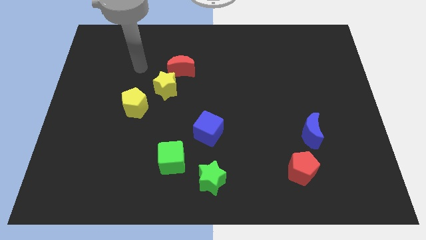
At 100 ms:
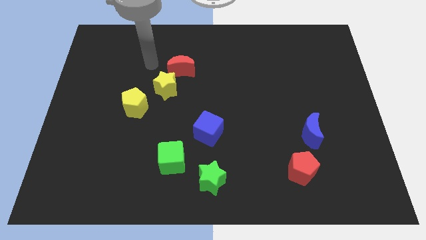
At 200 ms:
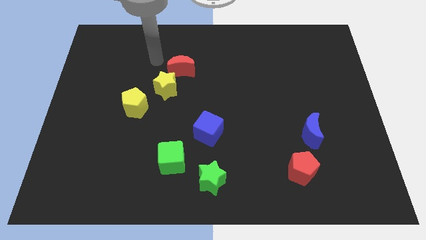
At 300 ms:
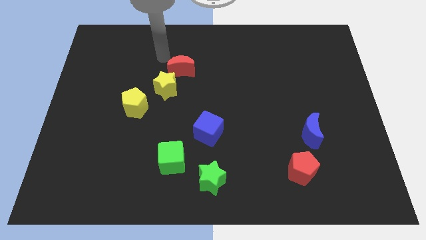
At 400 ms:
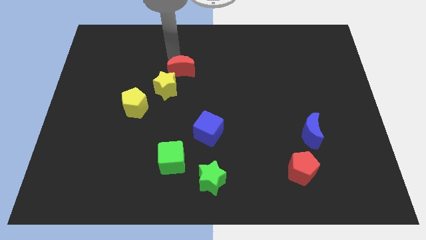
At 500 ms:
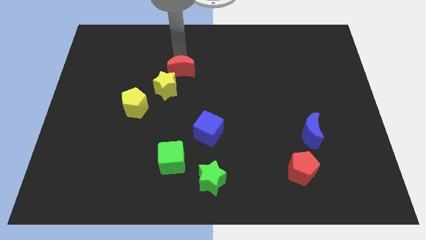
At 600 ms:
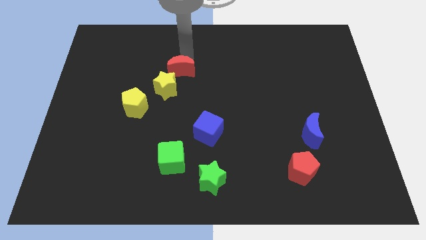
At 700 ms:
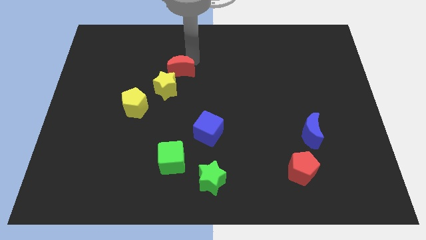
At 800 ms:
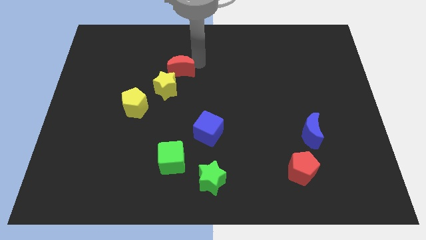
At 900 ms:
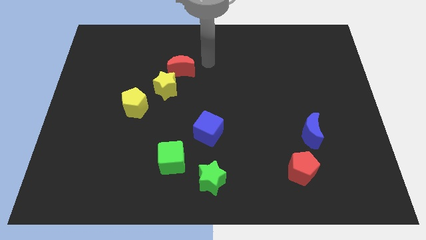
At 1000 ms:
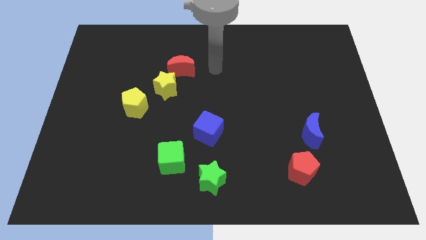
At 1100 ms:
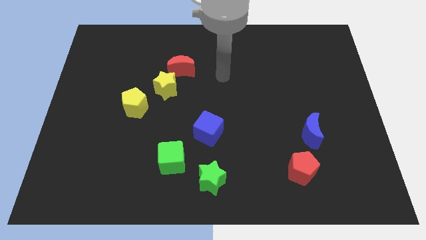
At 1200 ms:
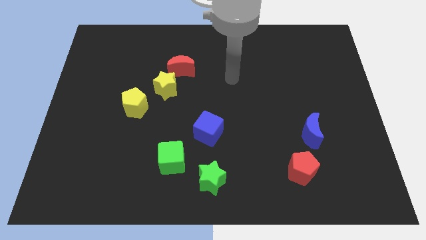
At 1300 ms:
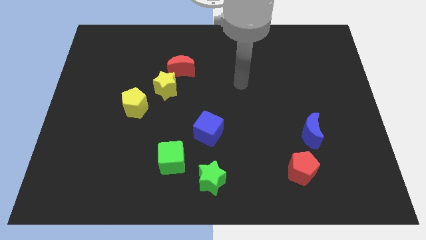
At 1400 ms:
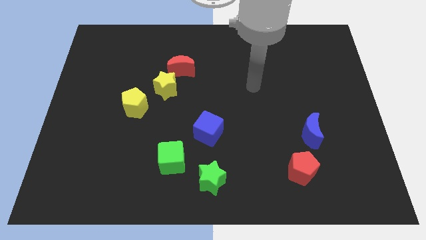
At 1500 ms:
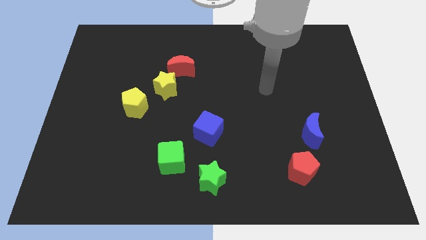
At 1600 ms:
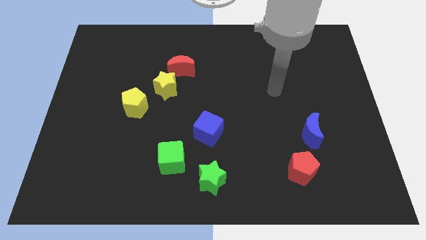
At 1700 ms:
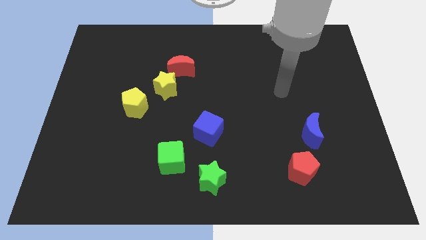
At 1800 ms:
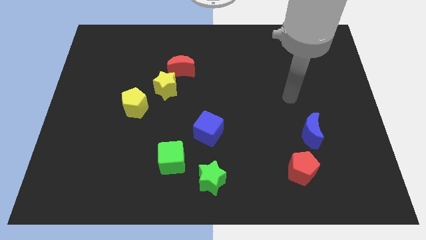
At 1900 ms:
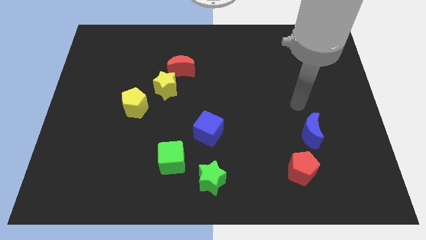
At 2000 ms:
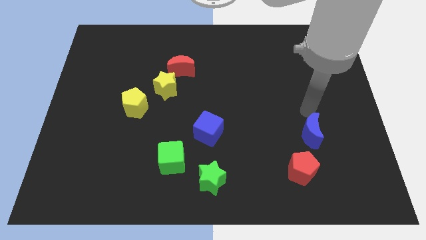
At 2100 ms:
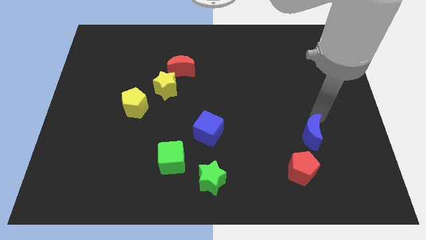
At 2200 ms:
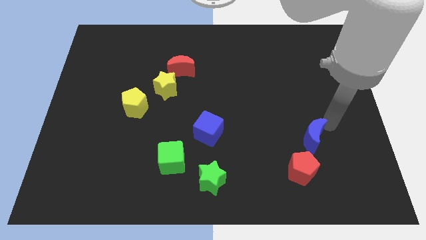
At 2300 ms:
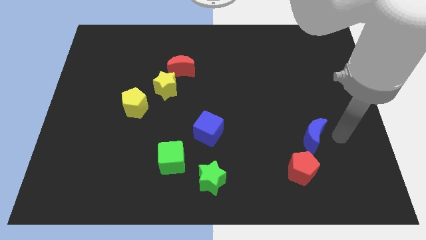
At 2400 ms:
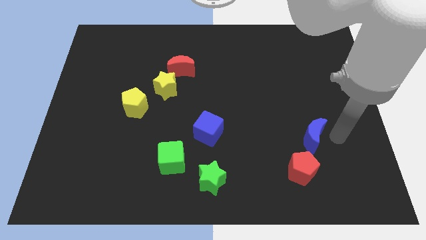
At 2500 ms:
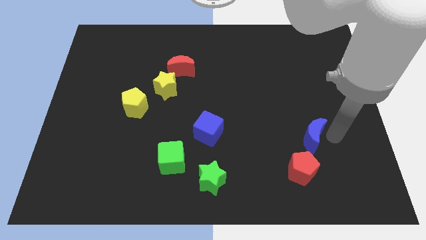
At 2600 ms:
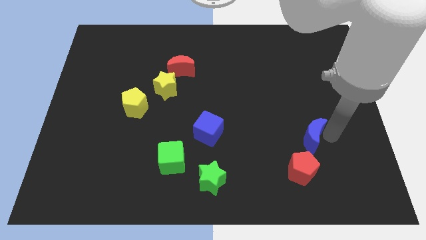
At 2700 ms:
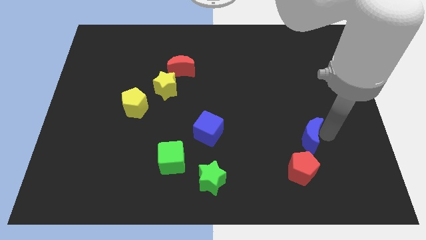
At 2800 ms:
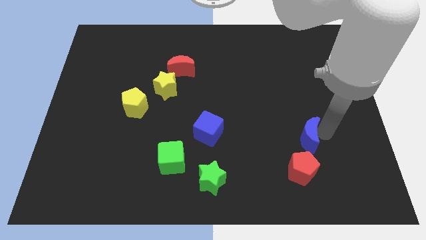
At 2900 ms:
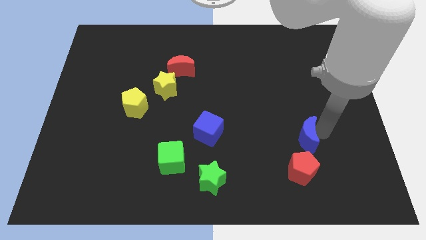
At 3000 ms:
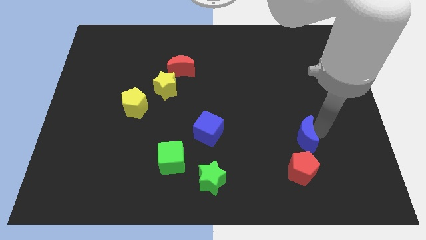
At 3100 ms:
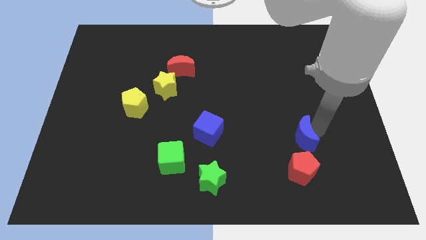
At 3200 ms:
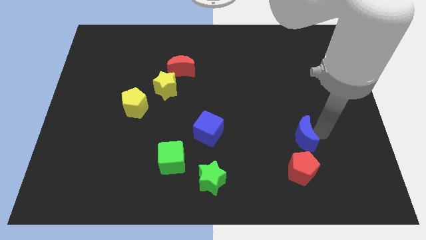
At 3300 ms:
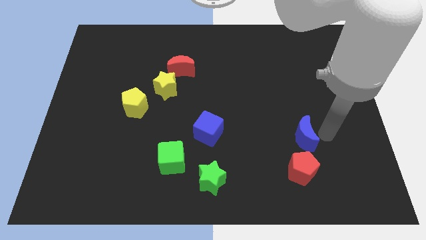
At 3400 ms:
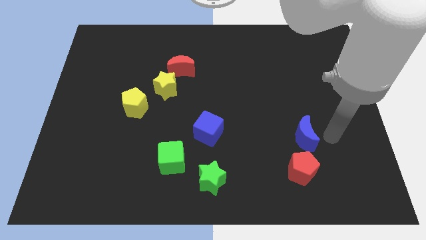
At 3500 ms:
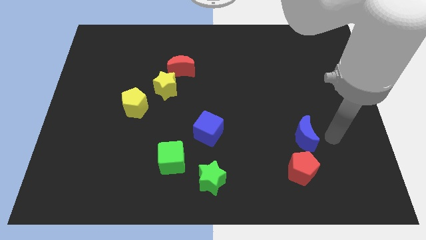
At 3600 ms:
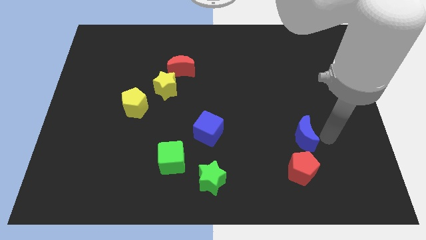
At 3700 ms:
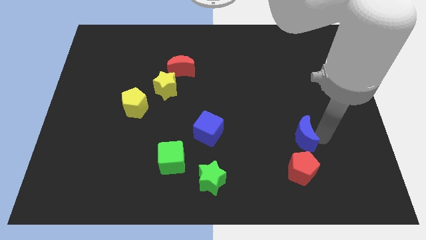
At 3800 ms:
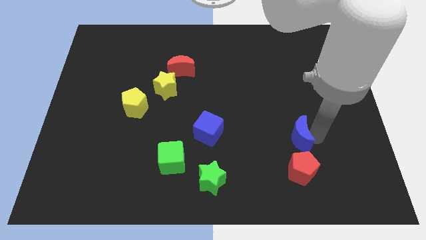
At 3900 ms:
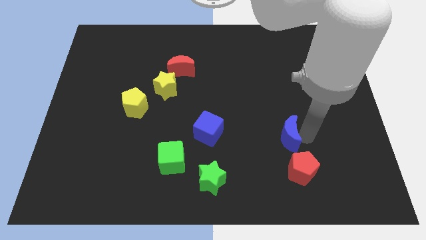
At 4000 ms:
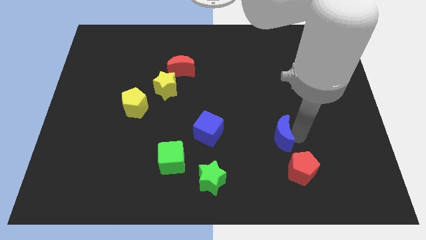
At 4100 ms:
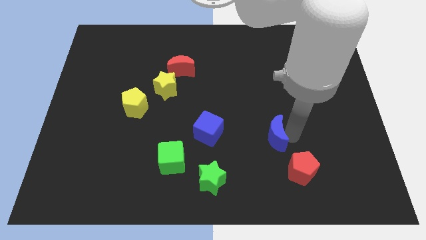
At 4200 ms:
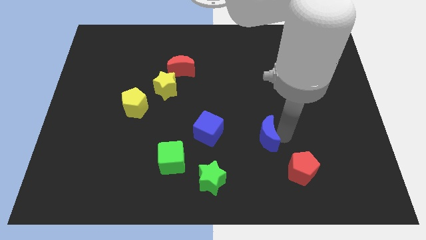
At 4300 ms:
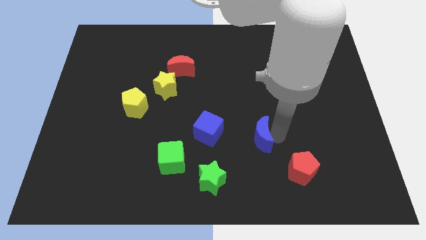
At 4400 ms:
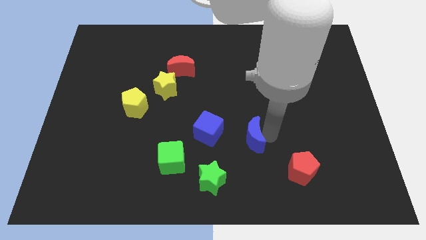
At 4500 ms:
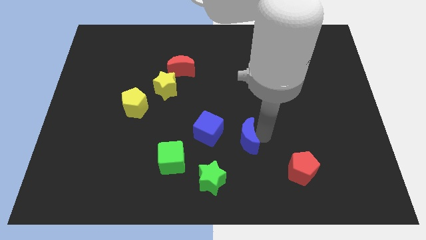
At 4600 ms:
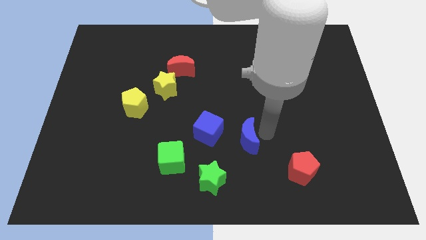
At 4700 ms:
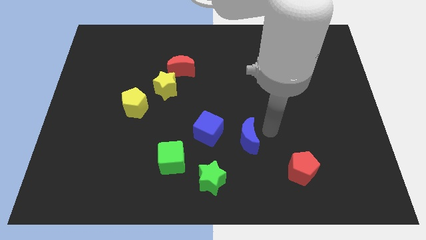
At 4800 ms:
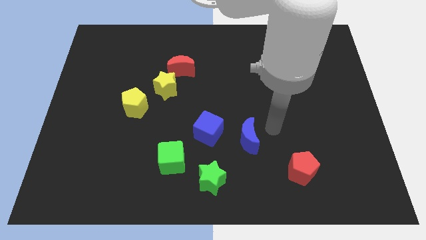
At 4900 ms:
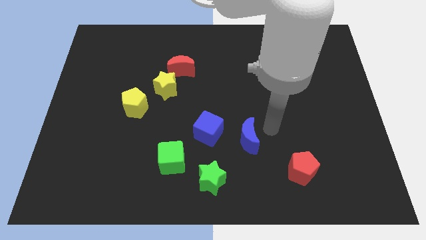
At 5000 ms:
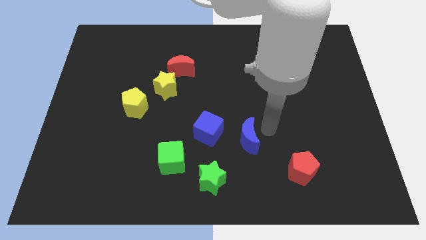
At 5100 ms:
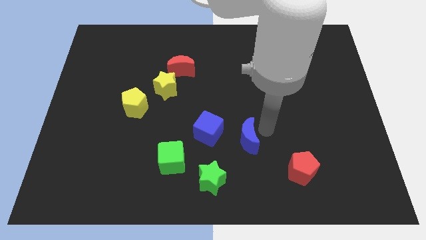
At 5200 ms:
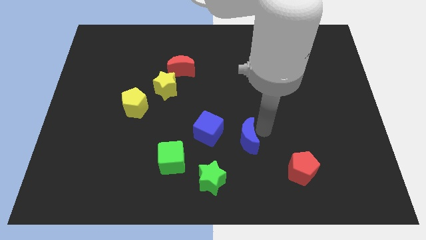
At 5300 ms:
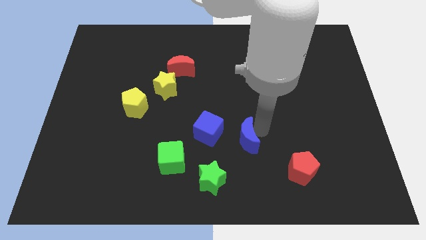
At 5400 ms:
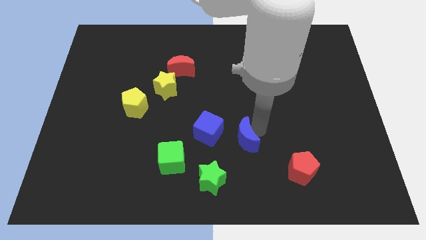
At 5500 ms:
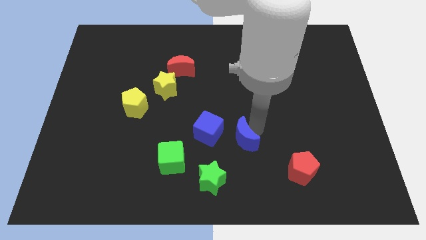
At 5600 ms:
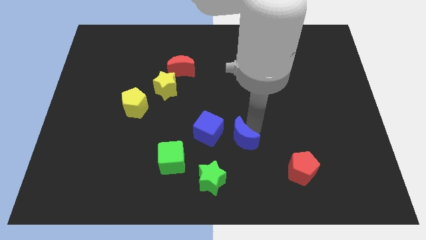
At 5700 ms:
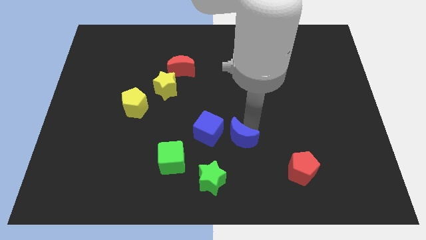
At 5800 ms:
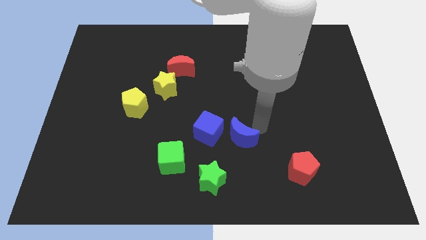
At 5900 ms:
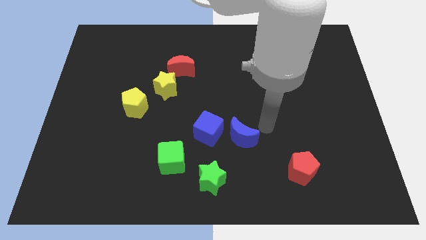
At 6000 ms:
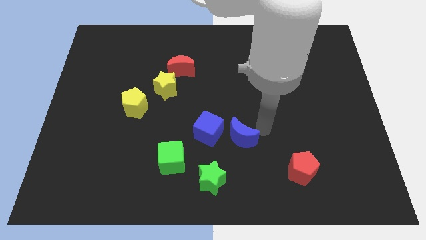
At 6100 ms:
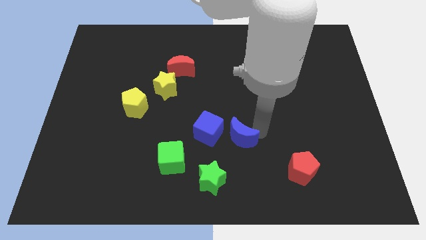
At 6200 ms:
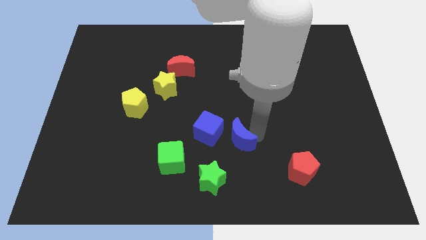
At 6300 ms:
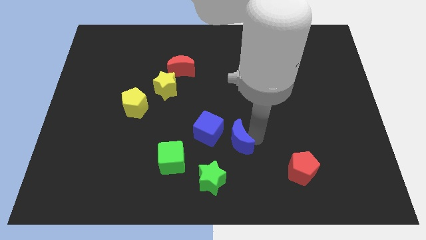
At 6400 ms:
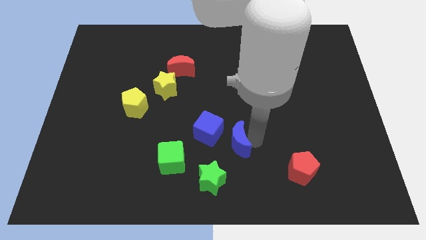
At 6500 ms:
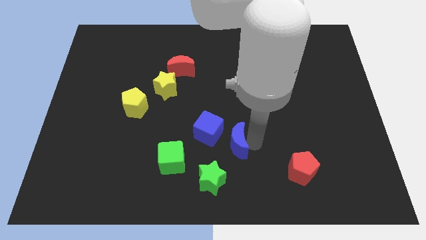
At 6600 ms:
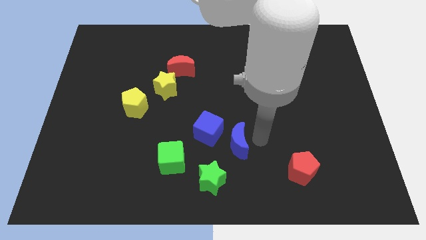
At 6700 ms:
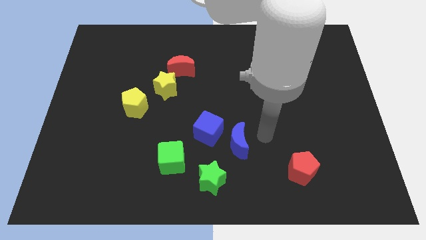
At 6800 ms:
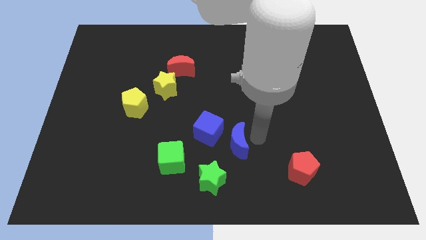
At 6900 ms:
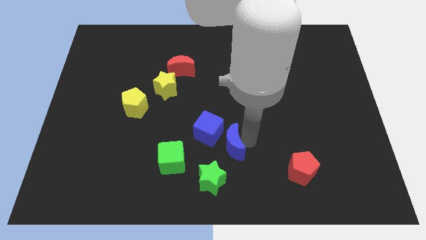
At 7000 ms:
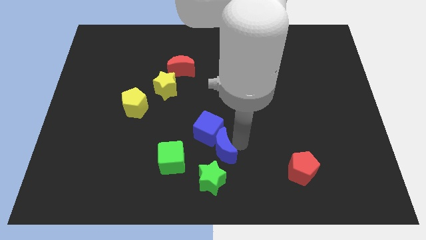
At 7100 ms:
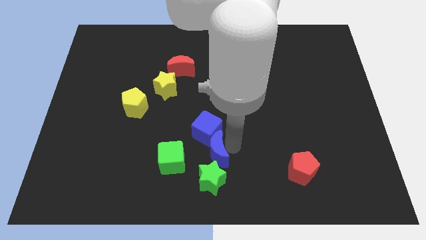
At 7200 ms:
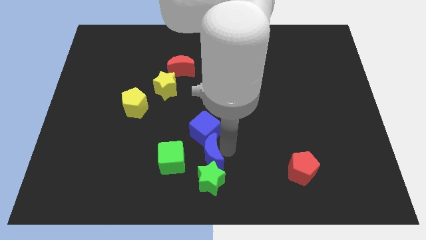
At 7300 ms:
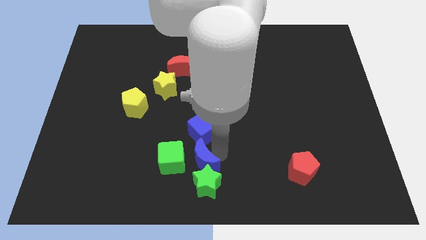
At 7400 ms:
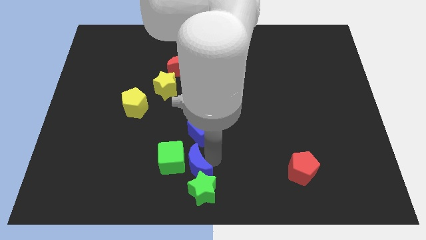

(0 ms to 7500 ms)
put the blue moon towards the green cube
